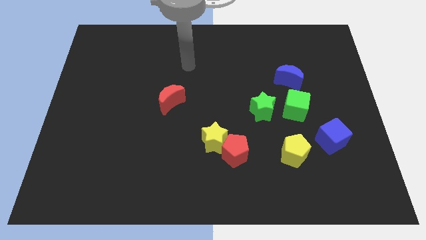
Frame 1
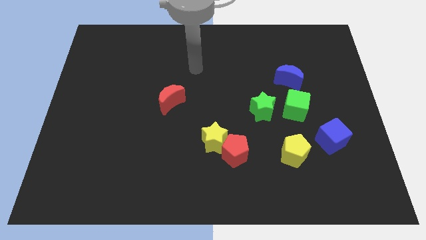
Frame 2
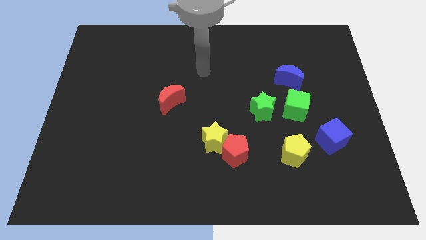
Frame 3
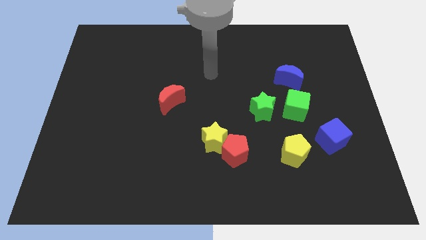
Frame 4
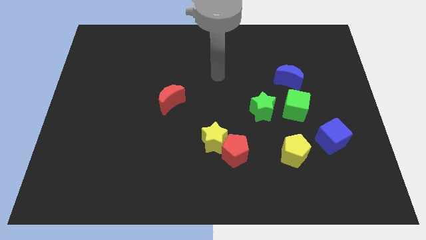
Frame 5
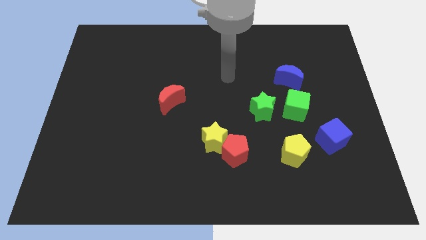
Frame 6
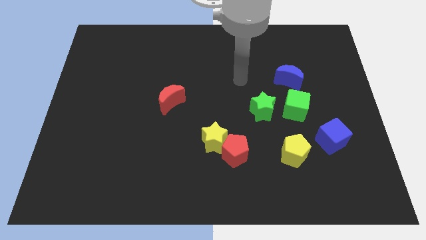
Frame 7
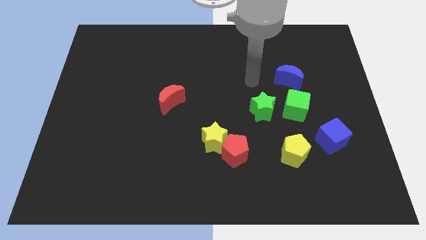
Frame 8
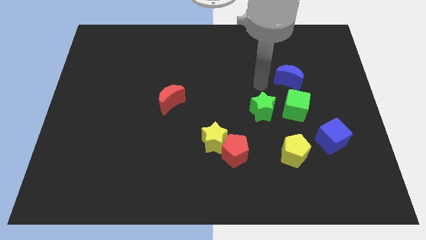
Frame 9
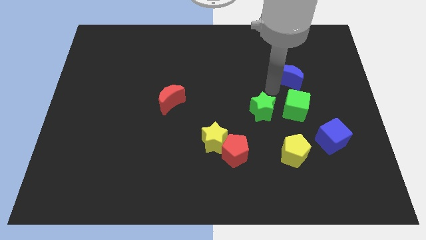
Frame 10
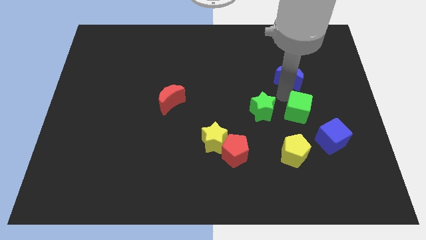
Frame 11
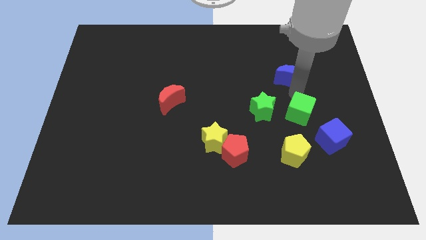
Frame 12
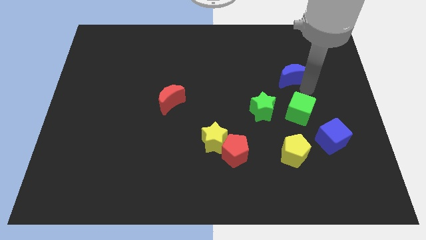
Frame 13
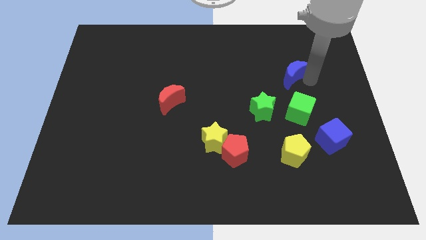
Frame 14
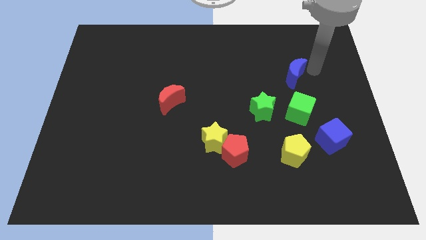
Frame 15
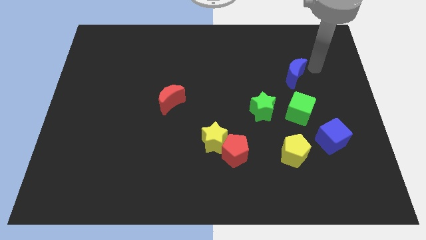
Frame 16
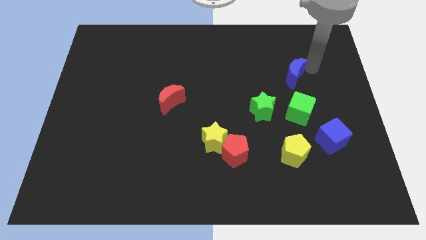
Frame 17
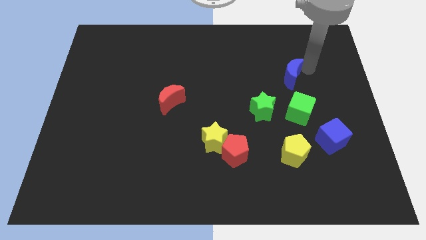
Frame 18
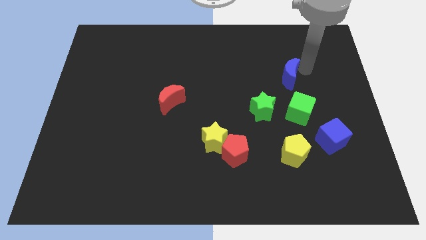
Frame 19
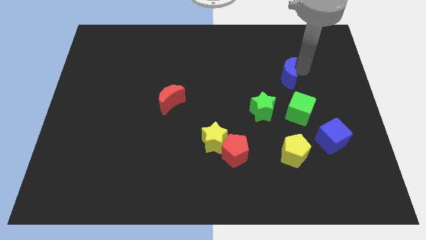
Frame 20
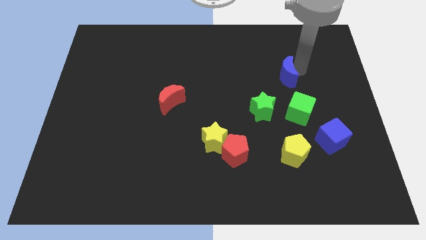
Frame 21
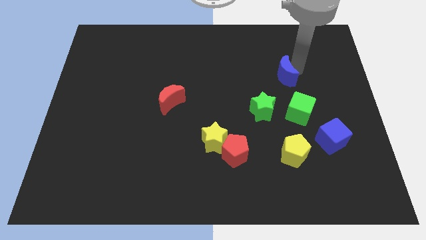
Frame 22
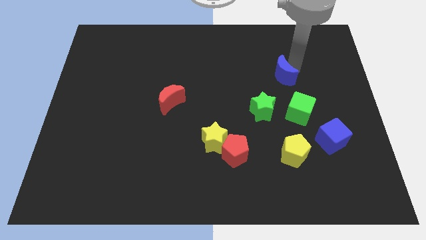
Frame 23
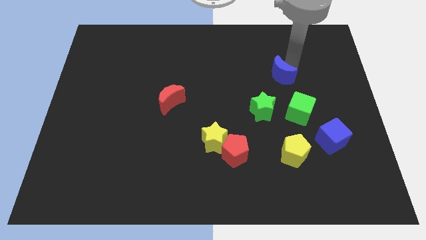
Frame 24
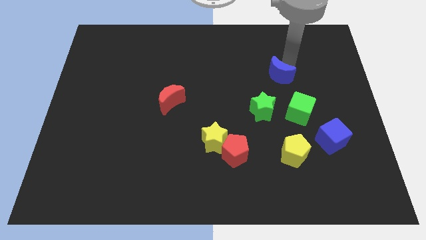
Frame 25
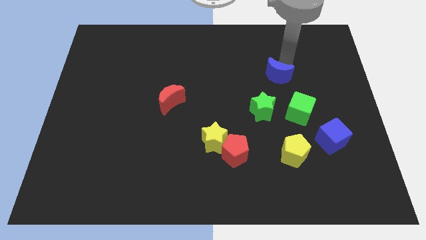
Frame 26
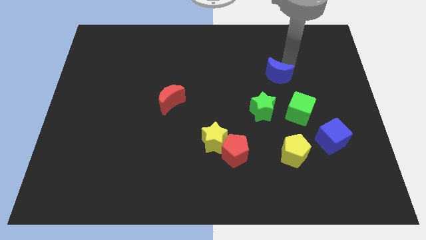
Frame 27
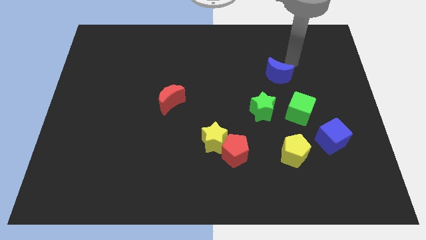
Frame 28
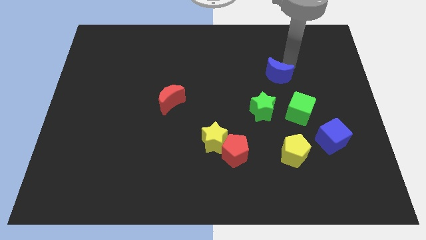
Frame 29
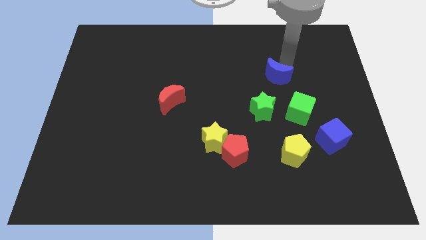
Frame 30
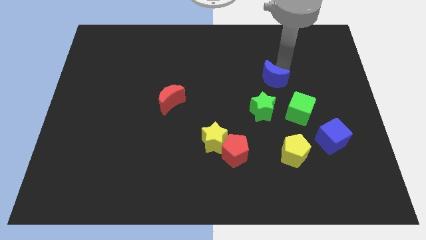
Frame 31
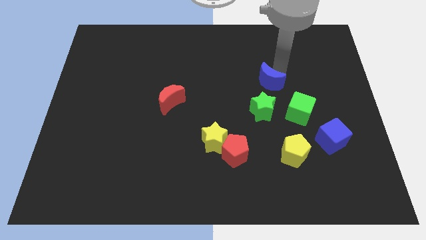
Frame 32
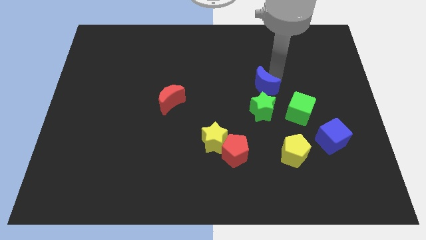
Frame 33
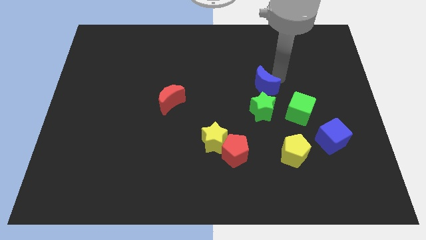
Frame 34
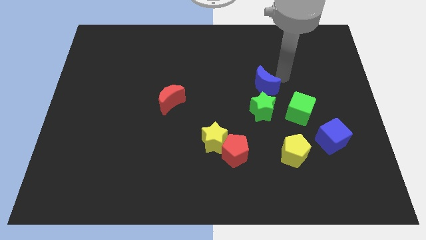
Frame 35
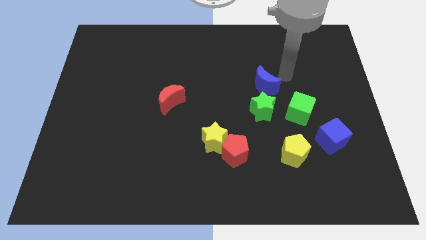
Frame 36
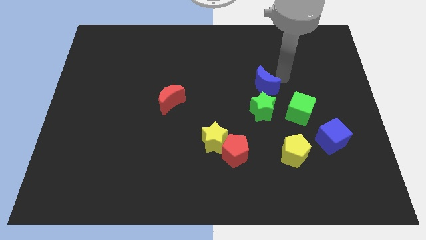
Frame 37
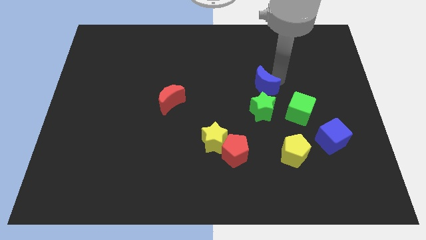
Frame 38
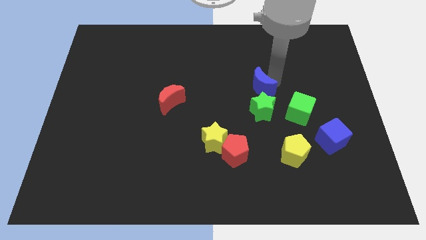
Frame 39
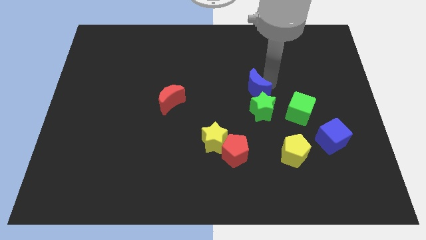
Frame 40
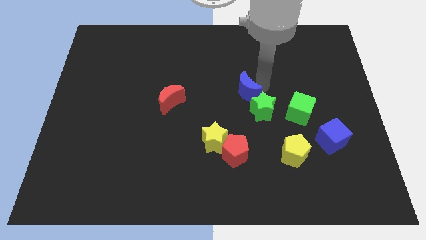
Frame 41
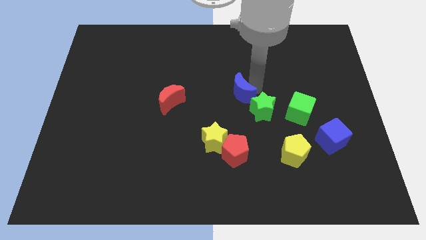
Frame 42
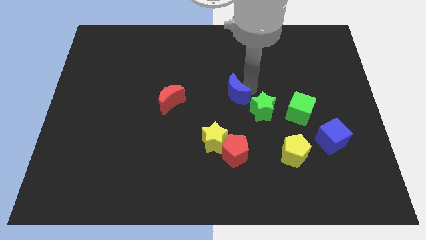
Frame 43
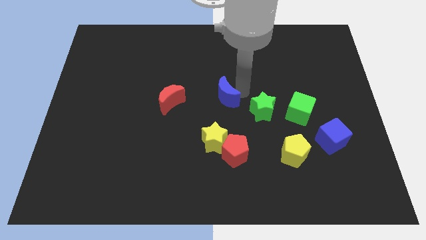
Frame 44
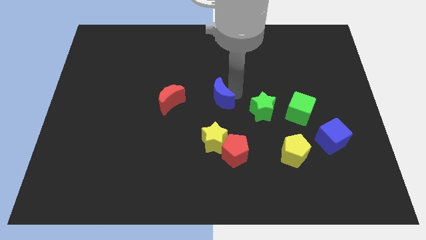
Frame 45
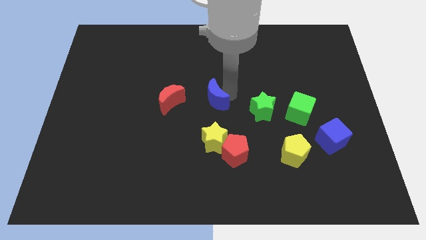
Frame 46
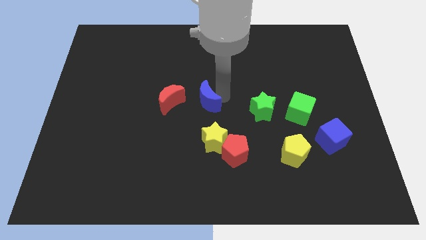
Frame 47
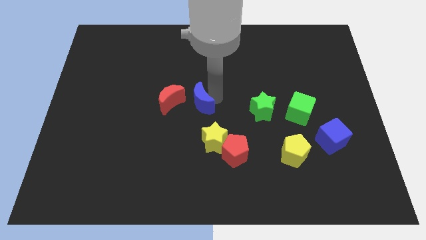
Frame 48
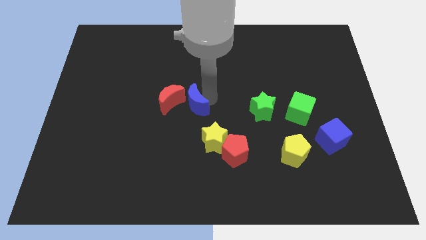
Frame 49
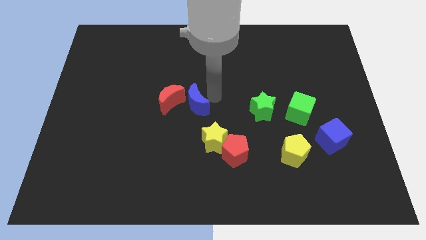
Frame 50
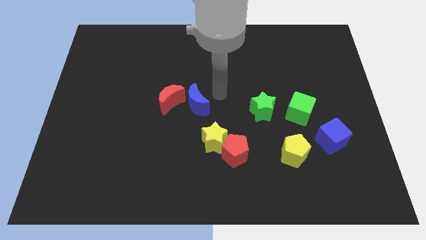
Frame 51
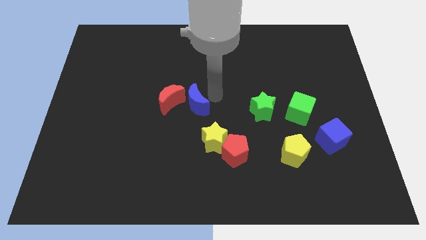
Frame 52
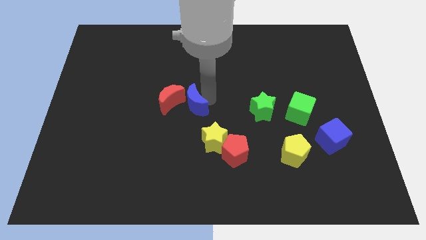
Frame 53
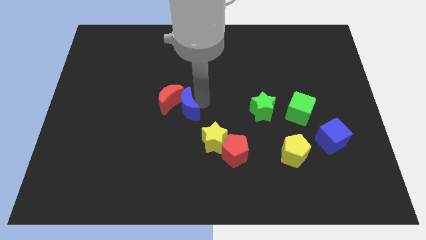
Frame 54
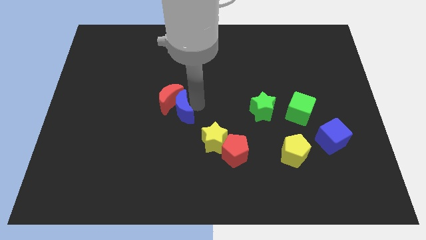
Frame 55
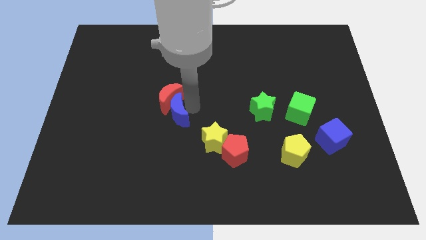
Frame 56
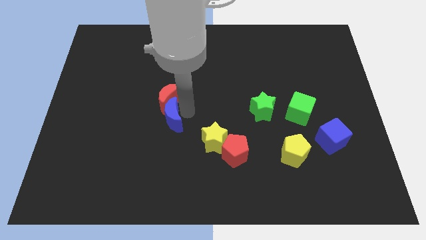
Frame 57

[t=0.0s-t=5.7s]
slide the blue moon diagonally down and to the left of the red moon

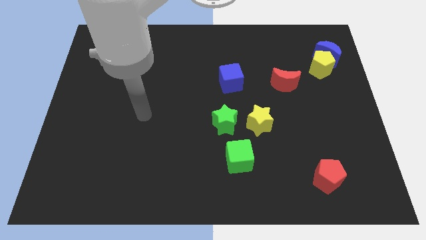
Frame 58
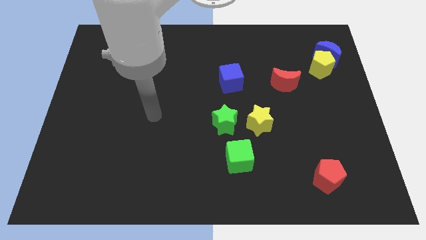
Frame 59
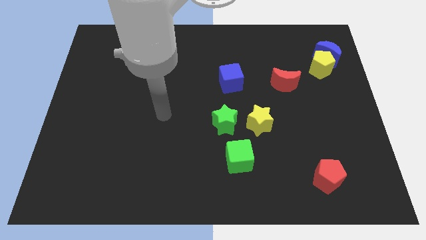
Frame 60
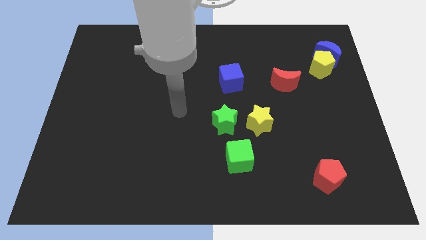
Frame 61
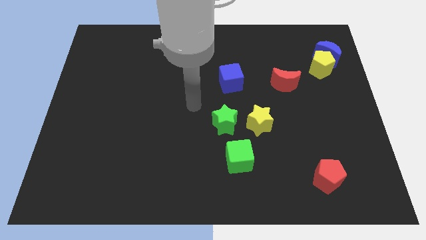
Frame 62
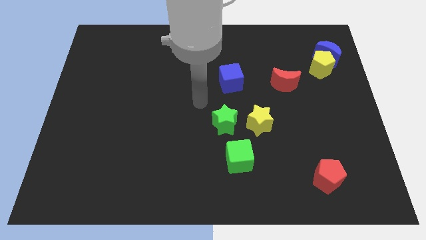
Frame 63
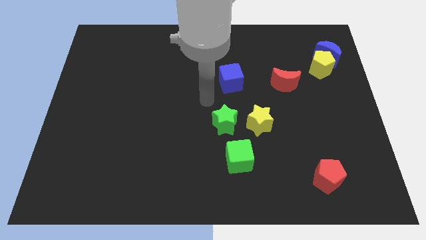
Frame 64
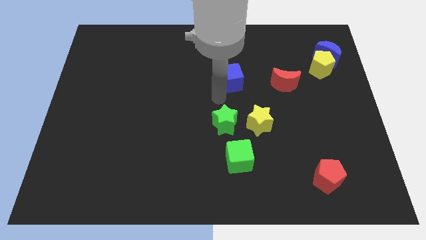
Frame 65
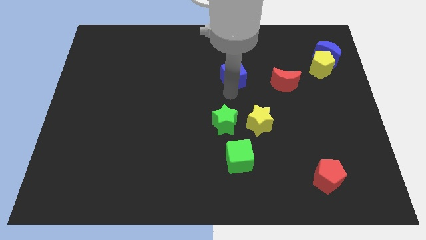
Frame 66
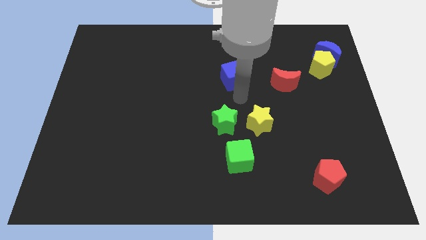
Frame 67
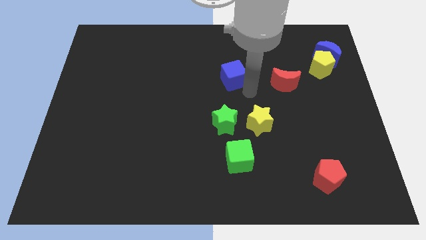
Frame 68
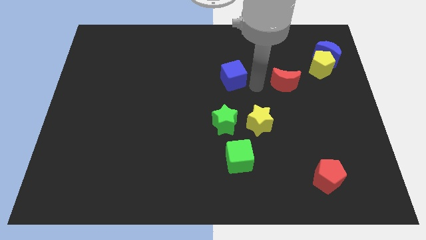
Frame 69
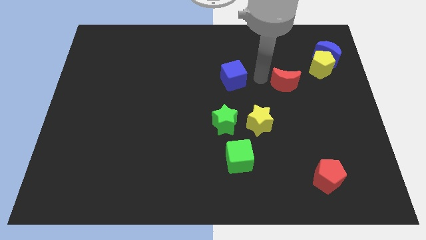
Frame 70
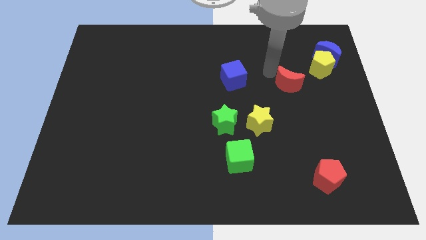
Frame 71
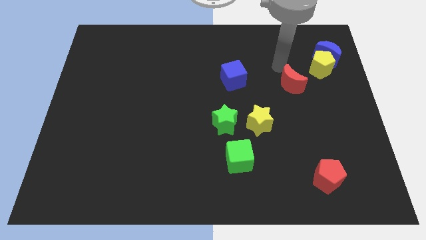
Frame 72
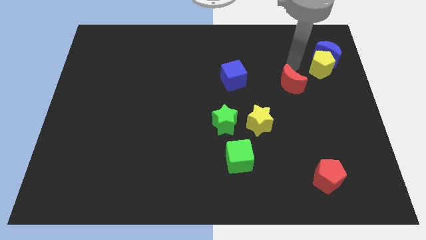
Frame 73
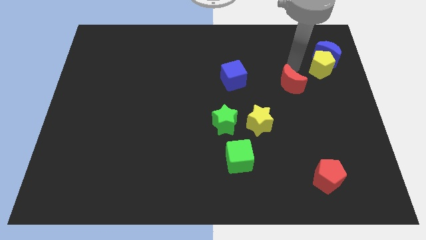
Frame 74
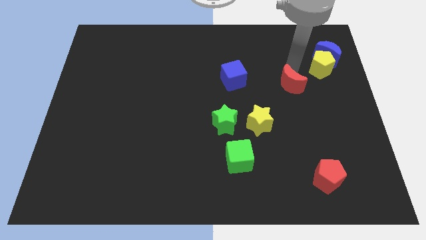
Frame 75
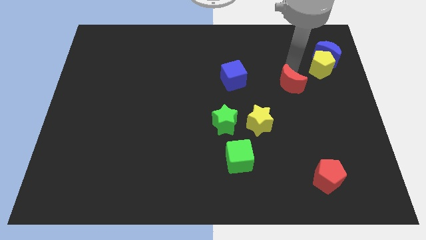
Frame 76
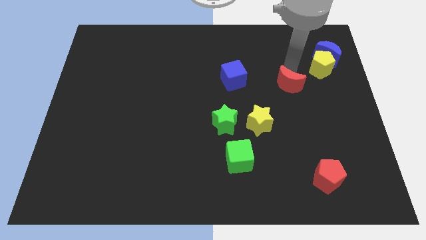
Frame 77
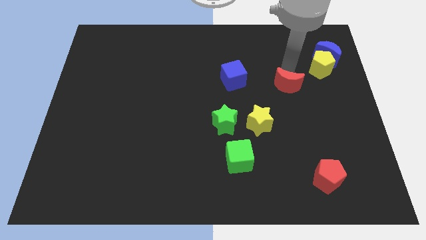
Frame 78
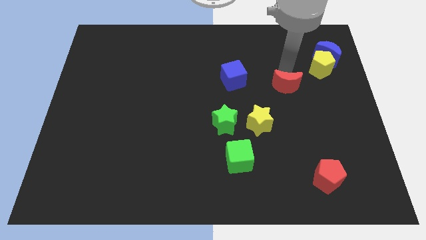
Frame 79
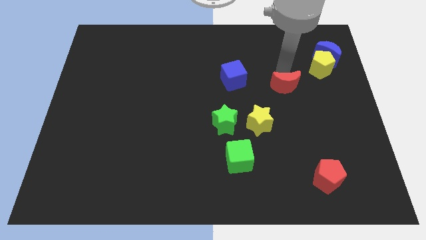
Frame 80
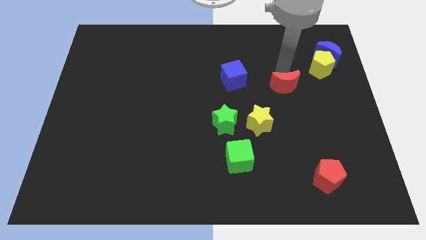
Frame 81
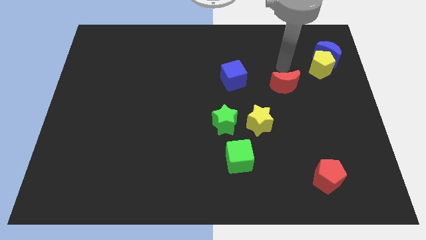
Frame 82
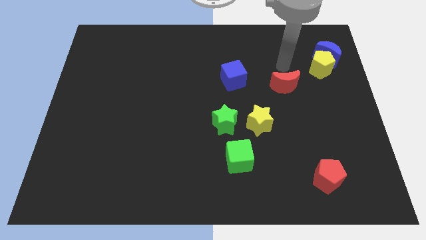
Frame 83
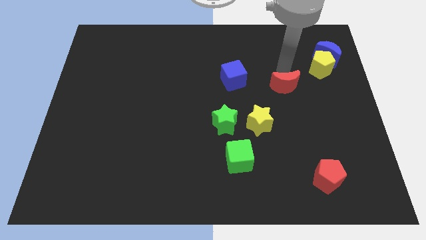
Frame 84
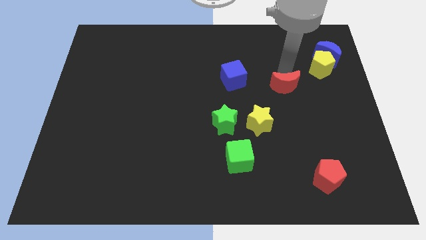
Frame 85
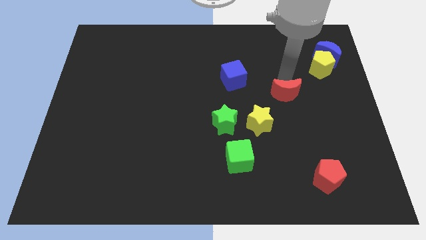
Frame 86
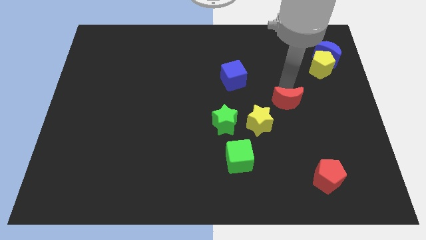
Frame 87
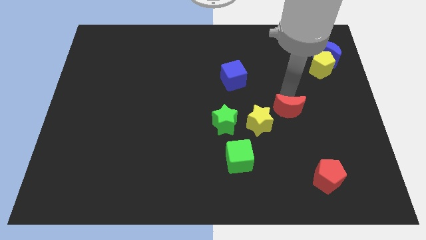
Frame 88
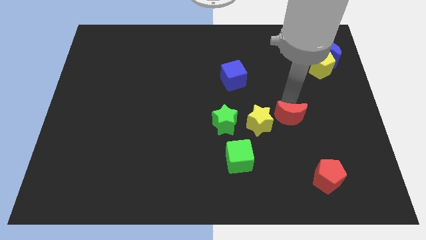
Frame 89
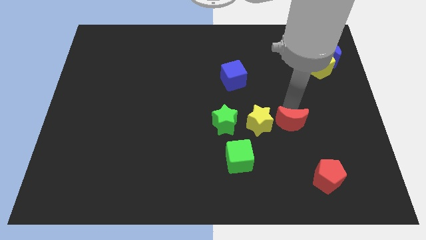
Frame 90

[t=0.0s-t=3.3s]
push the red moon to the bottom right of the yellow star
